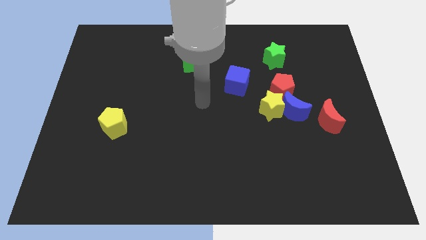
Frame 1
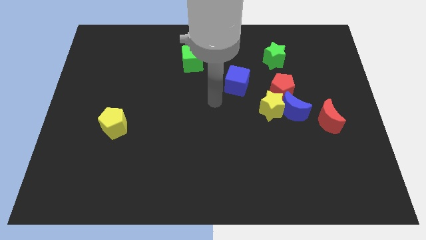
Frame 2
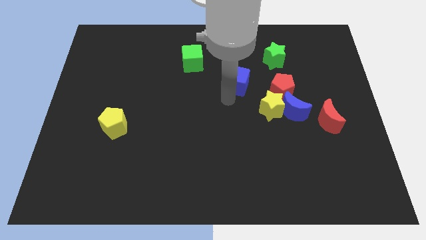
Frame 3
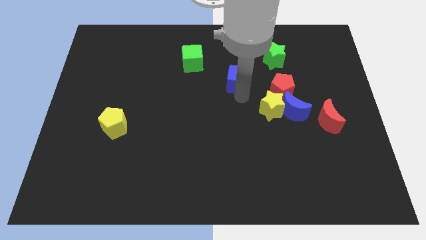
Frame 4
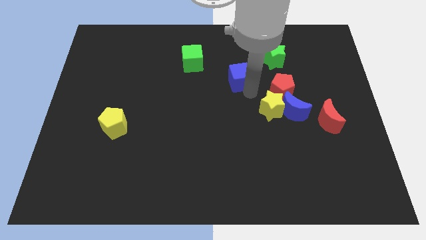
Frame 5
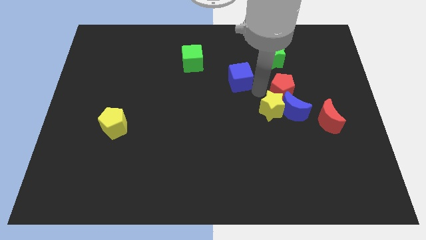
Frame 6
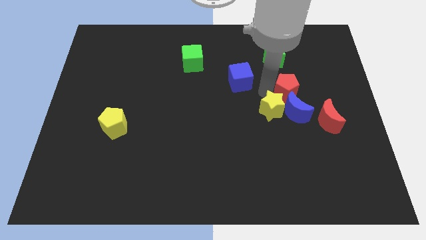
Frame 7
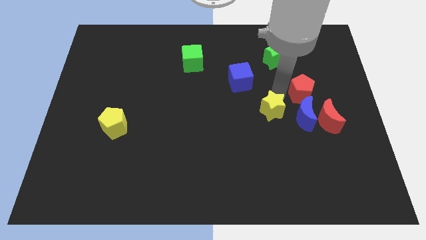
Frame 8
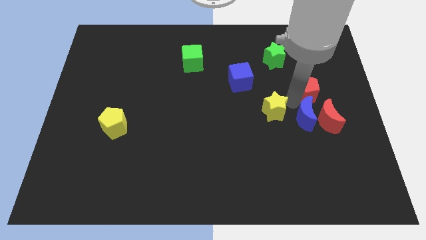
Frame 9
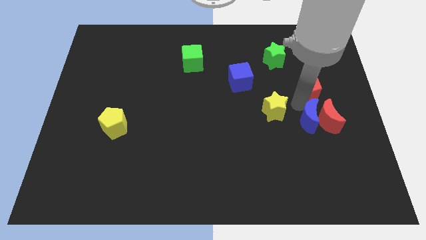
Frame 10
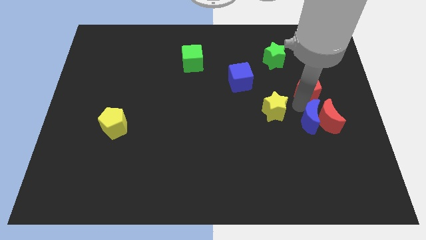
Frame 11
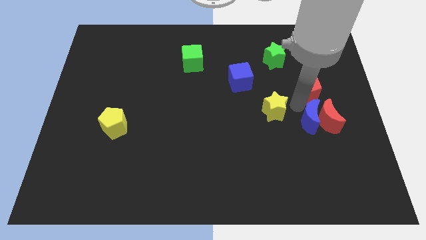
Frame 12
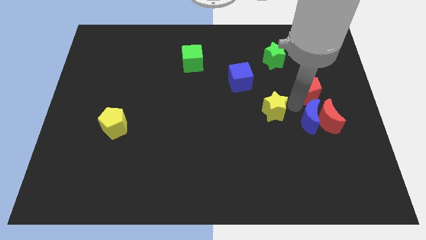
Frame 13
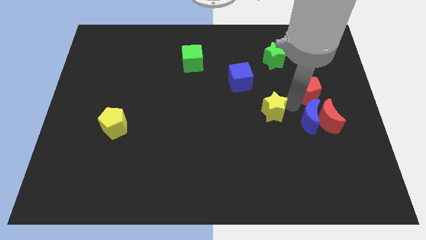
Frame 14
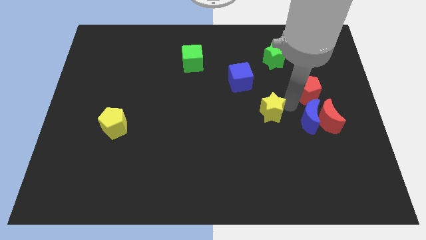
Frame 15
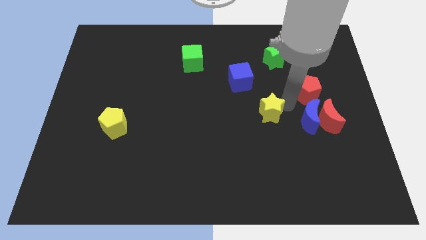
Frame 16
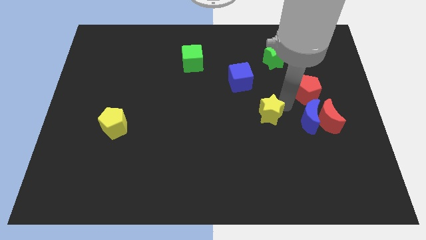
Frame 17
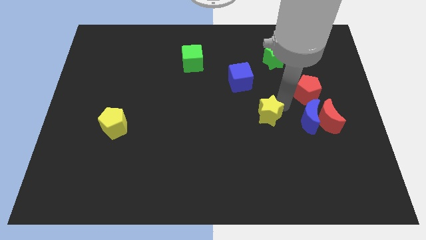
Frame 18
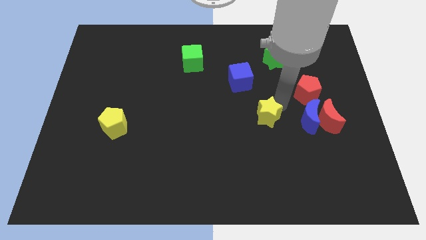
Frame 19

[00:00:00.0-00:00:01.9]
pull the yellow star apart from the blue moon and red pentagon

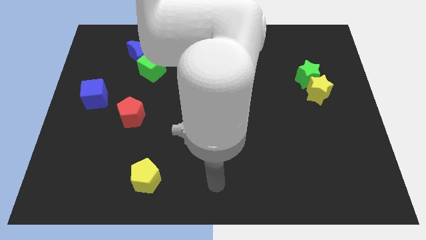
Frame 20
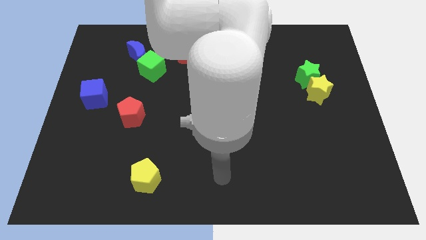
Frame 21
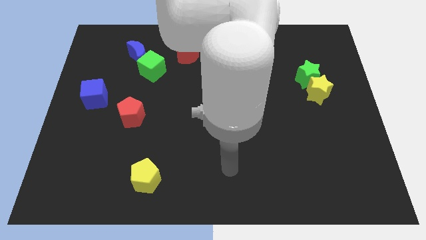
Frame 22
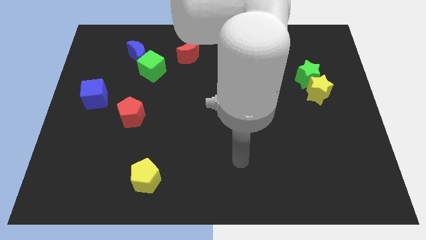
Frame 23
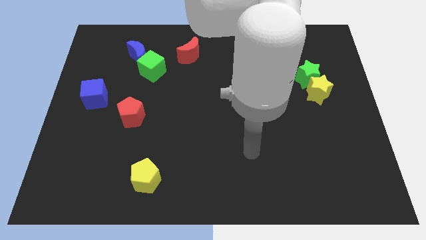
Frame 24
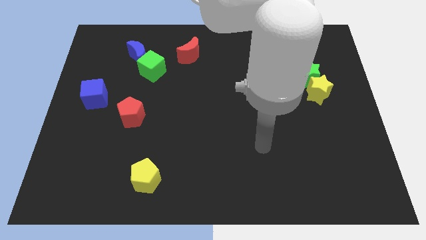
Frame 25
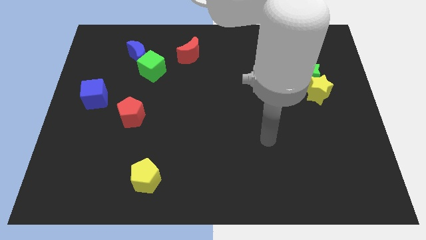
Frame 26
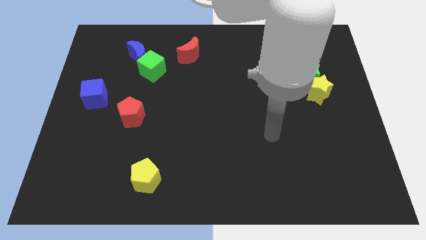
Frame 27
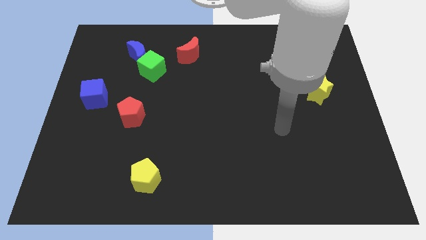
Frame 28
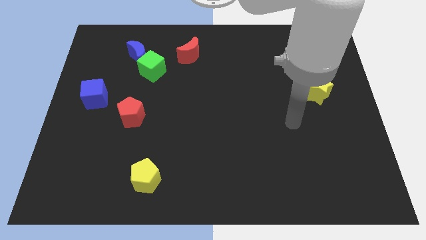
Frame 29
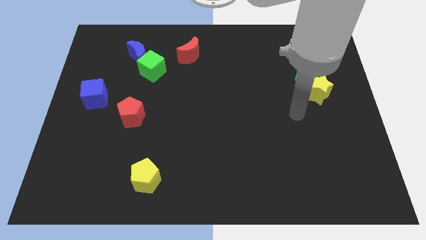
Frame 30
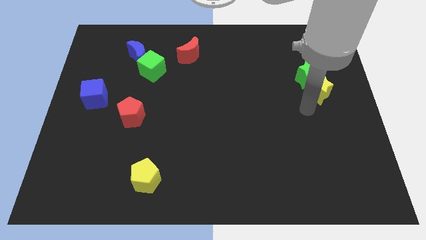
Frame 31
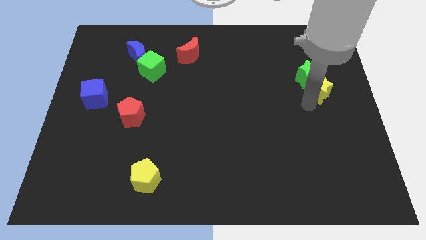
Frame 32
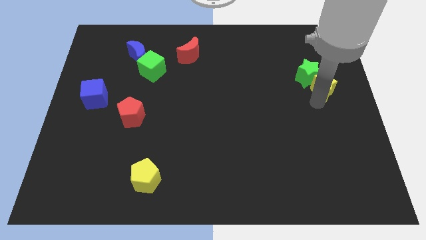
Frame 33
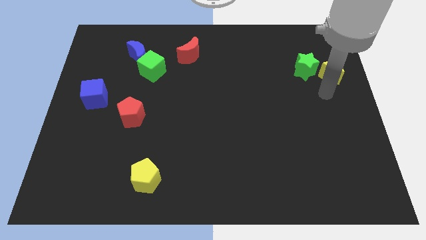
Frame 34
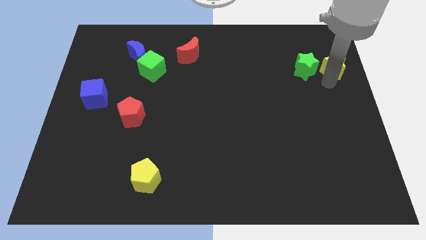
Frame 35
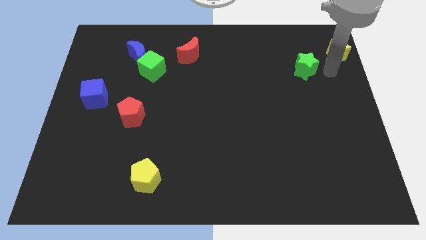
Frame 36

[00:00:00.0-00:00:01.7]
move the green star away from the yellow star

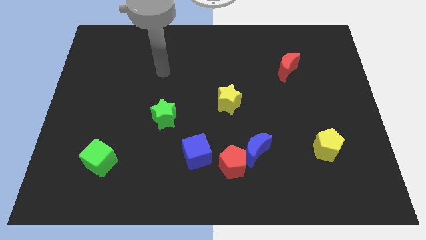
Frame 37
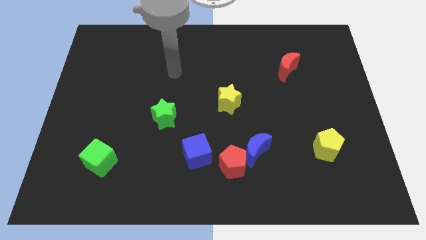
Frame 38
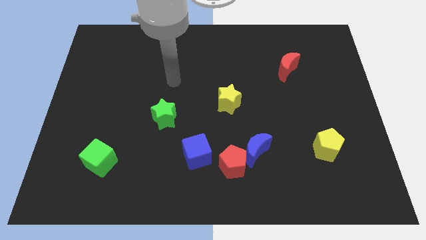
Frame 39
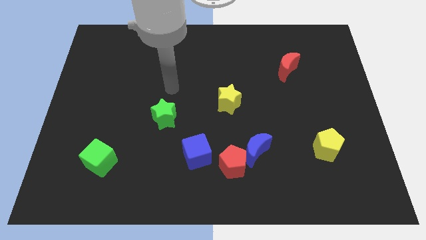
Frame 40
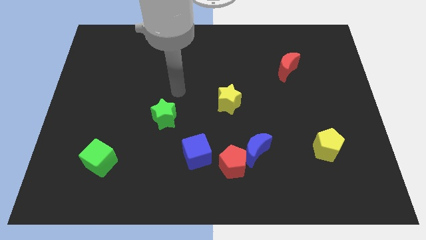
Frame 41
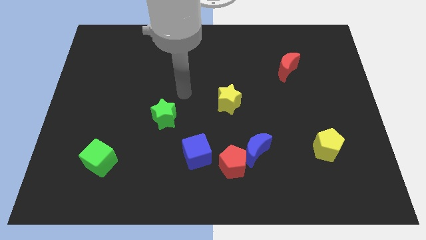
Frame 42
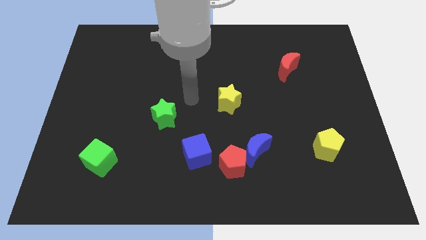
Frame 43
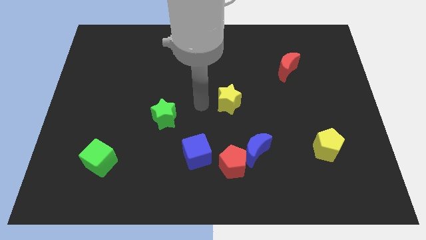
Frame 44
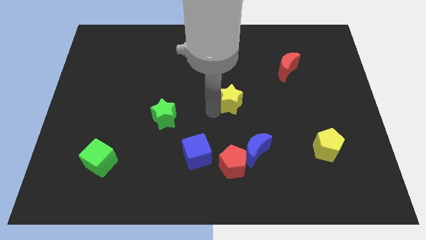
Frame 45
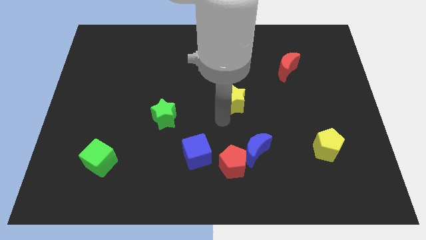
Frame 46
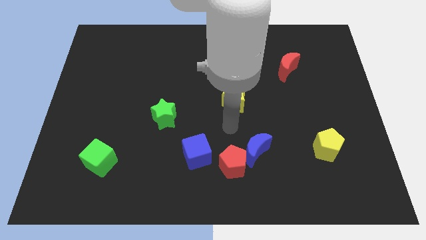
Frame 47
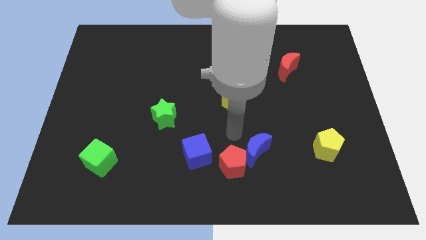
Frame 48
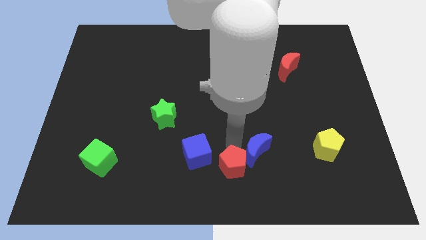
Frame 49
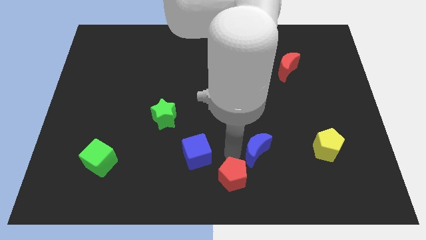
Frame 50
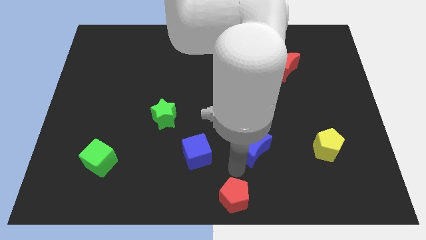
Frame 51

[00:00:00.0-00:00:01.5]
separate the blue moon from the red pentagon

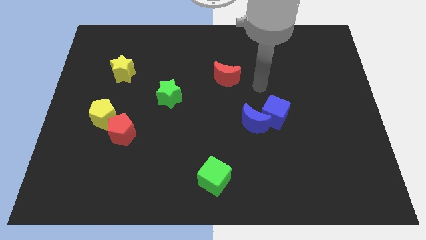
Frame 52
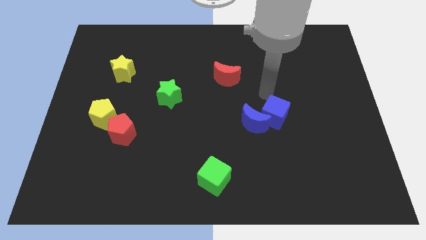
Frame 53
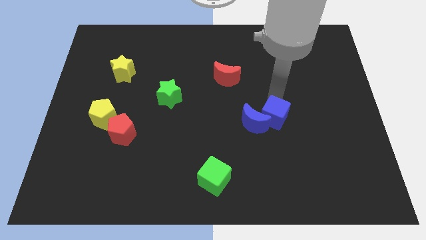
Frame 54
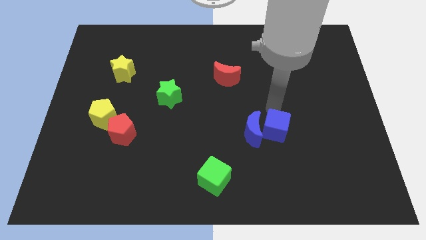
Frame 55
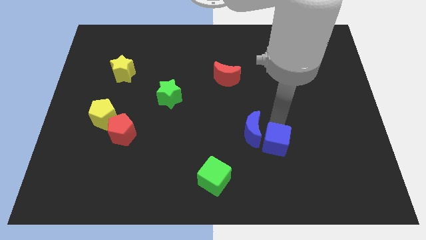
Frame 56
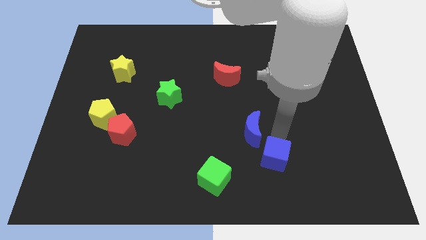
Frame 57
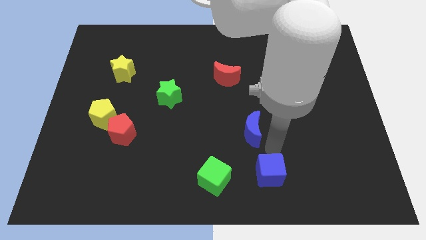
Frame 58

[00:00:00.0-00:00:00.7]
pull the blue moon apart from the blue cube

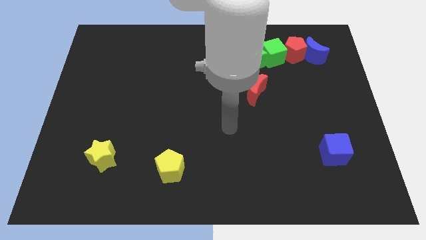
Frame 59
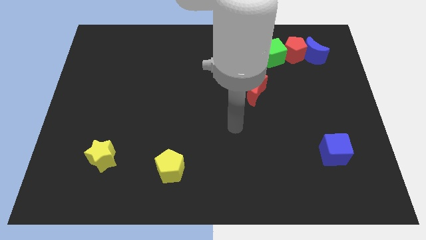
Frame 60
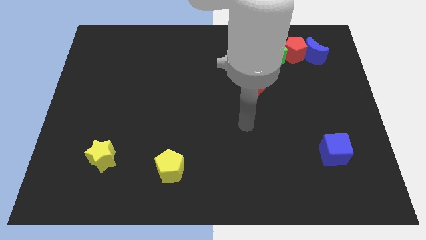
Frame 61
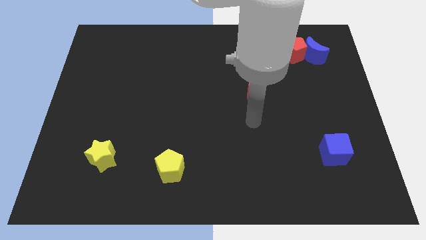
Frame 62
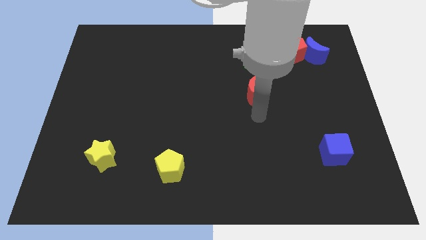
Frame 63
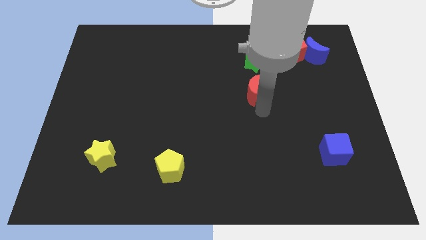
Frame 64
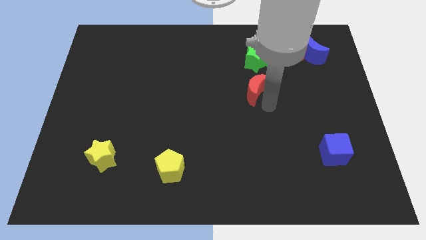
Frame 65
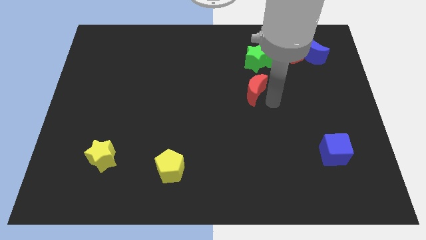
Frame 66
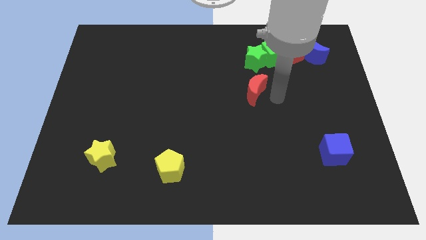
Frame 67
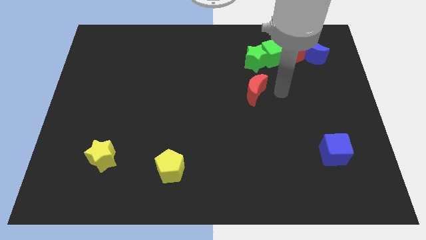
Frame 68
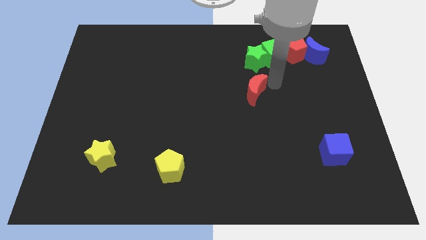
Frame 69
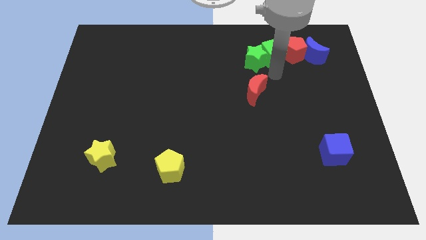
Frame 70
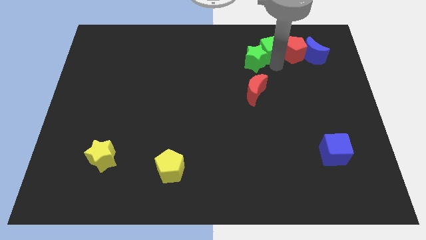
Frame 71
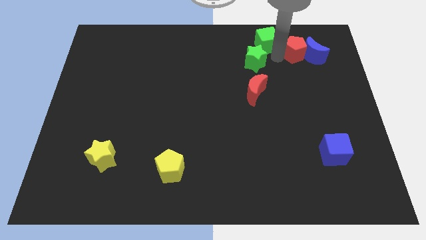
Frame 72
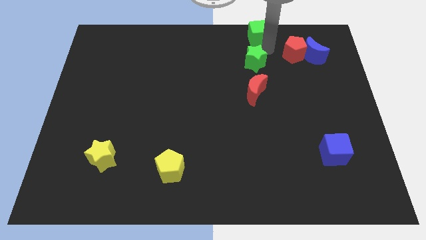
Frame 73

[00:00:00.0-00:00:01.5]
separate the green star from the green cube

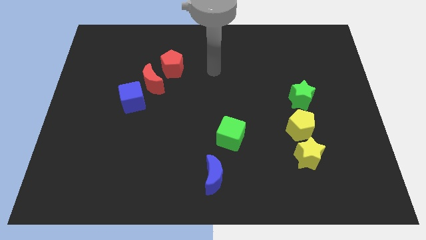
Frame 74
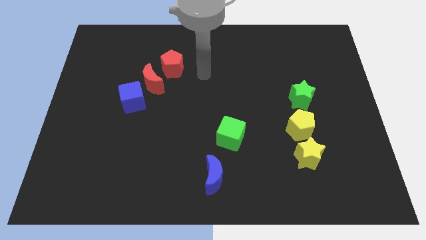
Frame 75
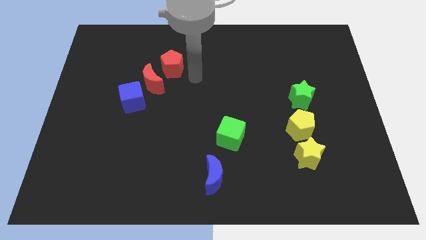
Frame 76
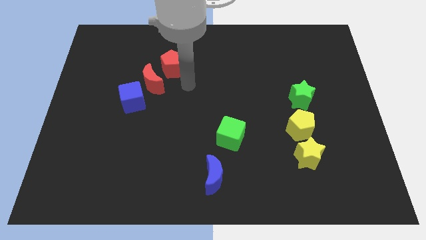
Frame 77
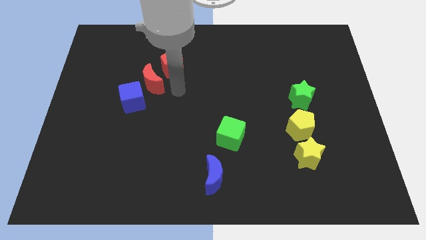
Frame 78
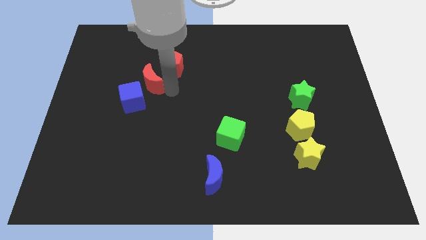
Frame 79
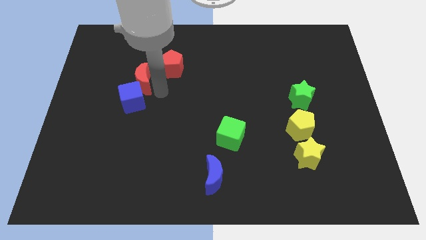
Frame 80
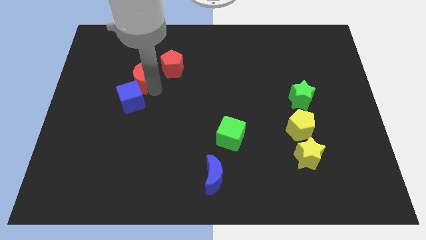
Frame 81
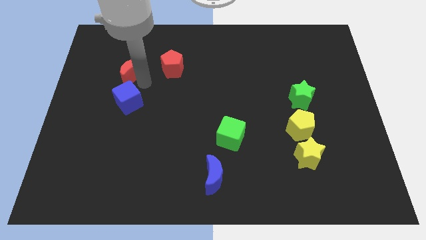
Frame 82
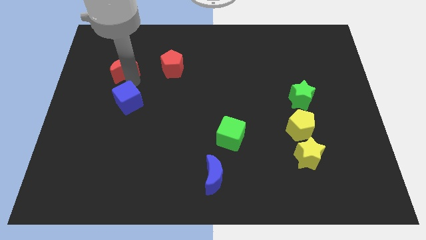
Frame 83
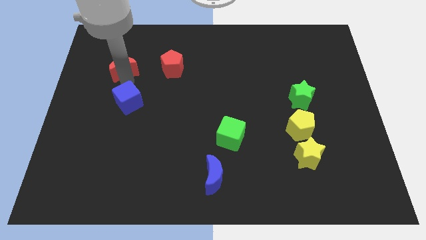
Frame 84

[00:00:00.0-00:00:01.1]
separate the blue cube from the red moon

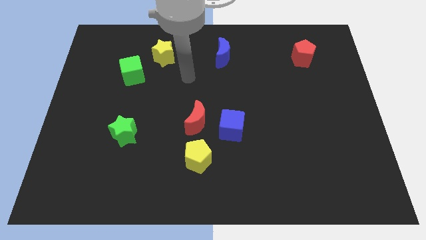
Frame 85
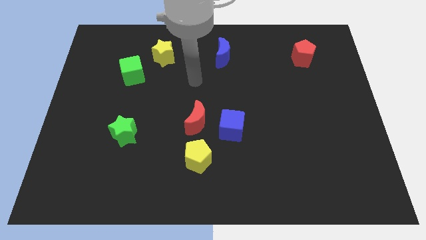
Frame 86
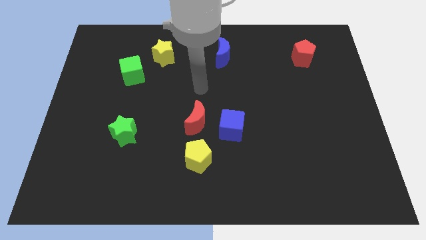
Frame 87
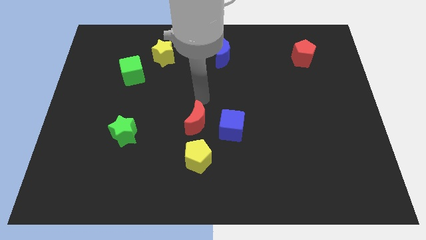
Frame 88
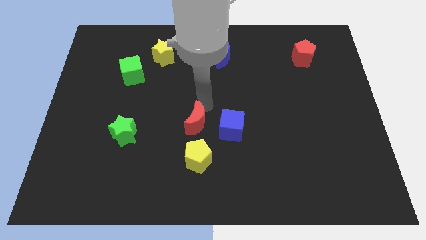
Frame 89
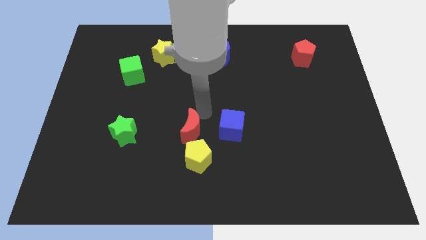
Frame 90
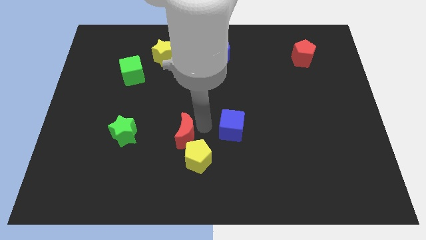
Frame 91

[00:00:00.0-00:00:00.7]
pull the blue cube apart from the red moon

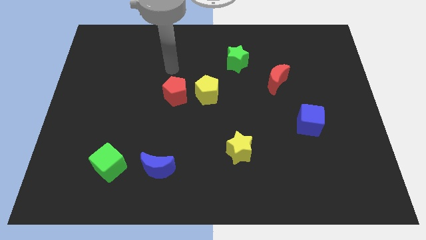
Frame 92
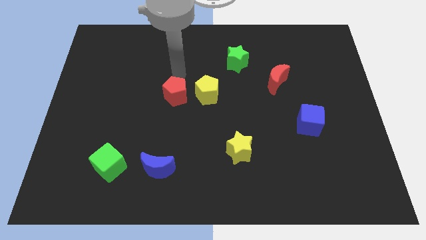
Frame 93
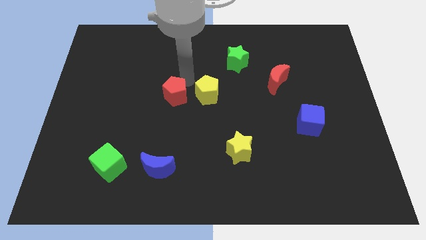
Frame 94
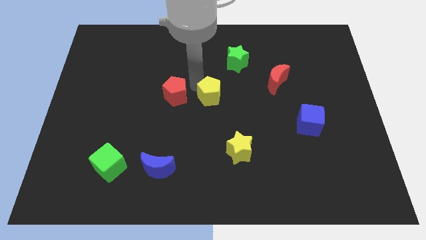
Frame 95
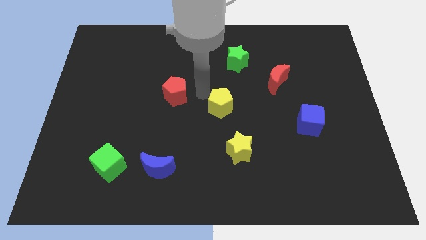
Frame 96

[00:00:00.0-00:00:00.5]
move the red pentagon away from the yellow pentagon
